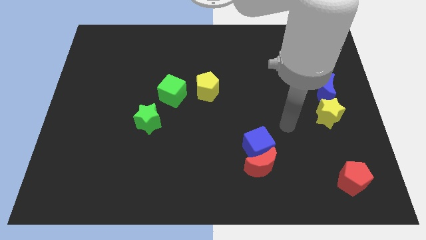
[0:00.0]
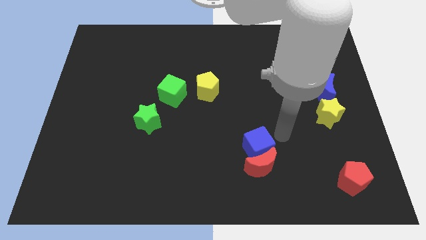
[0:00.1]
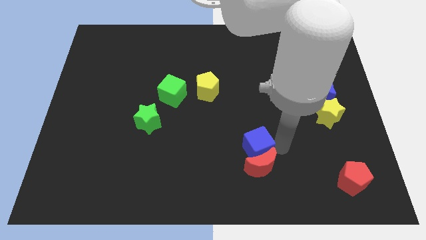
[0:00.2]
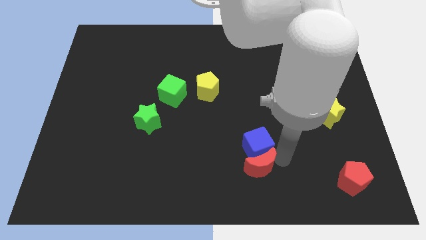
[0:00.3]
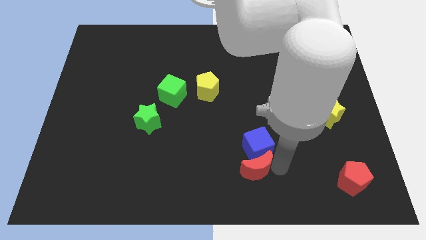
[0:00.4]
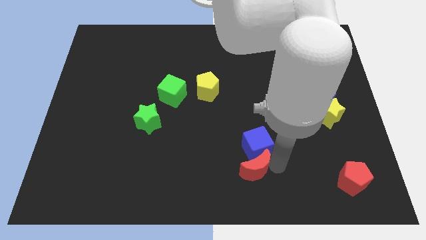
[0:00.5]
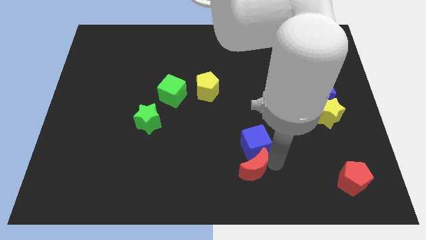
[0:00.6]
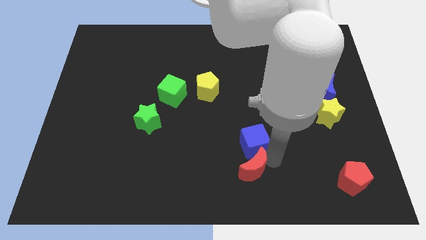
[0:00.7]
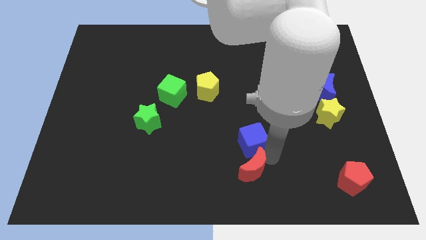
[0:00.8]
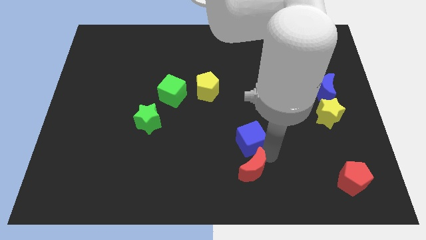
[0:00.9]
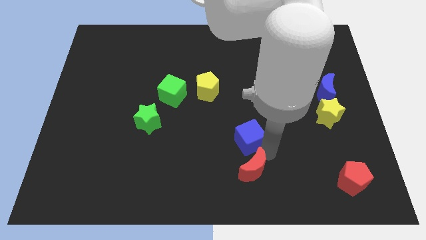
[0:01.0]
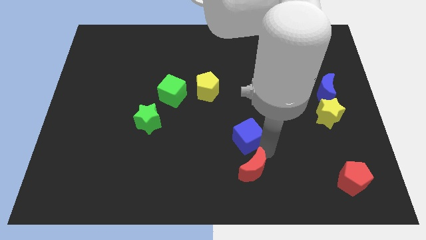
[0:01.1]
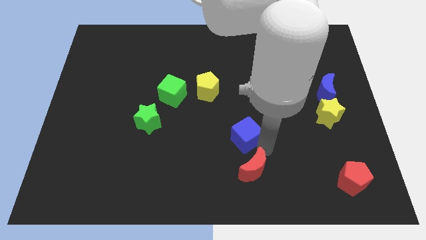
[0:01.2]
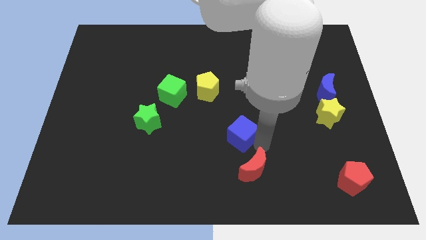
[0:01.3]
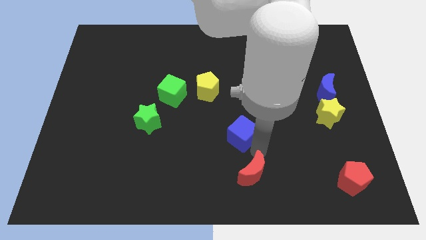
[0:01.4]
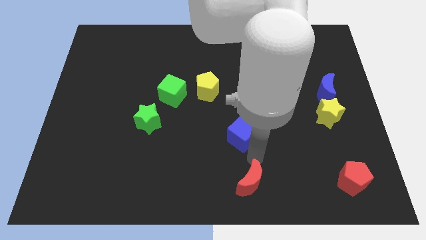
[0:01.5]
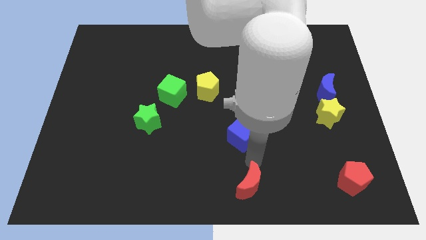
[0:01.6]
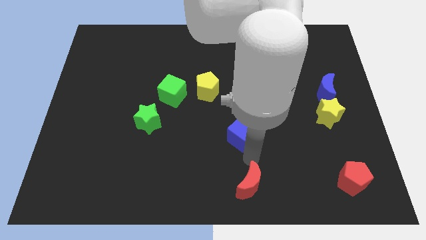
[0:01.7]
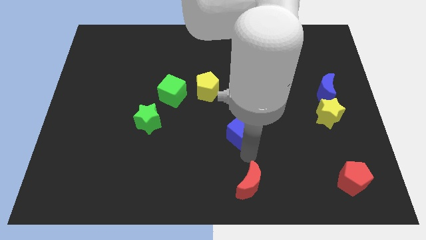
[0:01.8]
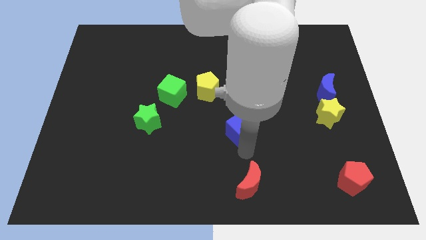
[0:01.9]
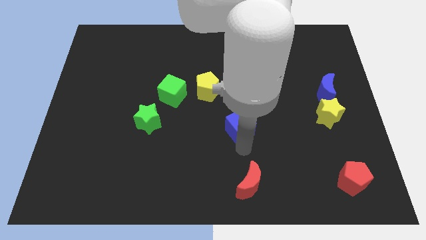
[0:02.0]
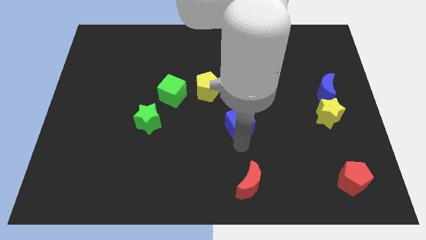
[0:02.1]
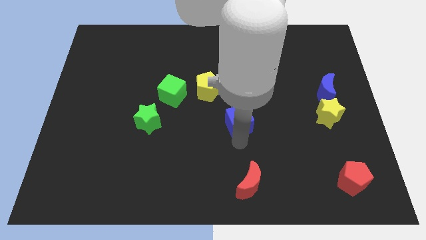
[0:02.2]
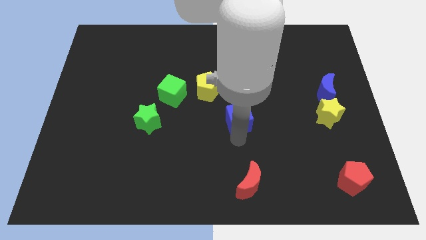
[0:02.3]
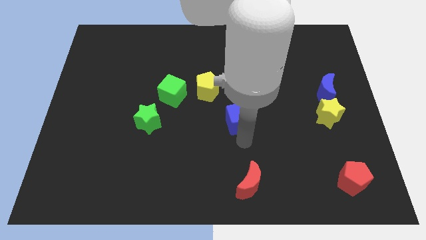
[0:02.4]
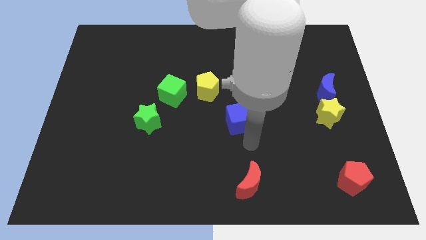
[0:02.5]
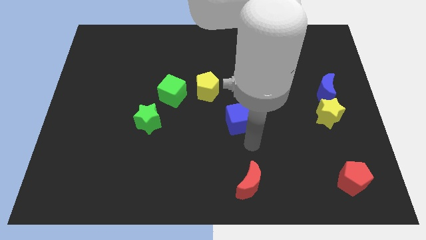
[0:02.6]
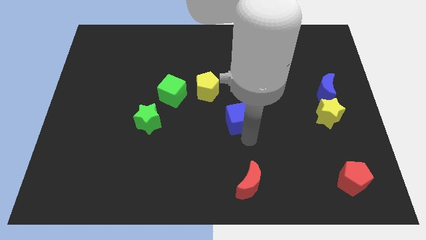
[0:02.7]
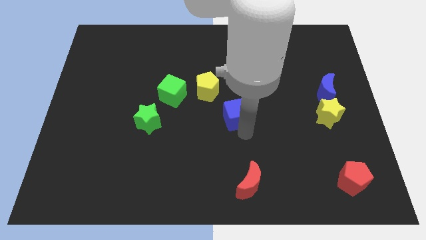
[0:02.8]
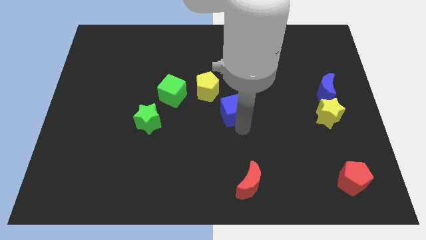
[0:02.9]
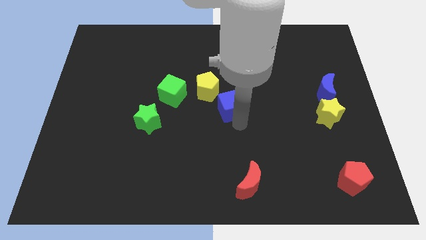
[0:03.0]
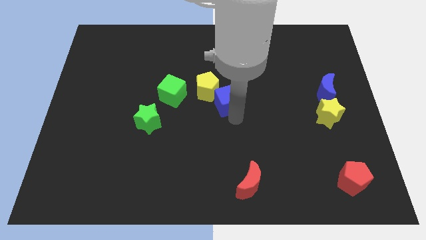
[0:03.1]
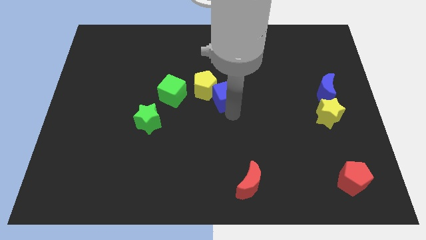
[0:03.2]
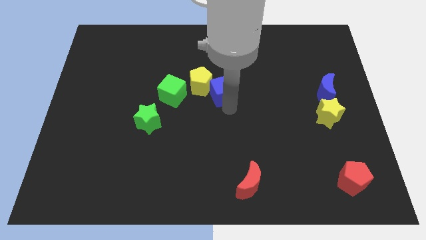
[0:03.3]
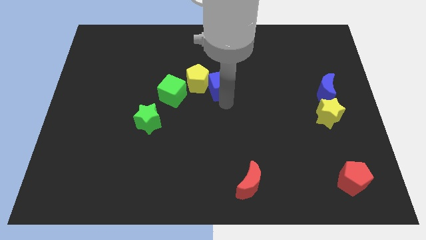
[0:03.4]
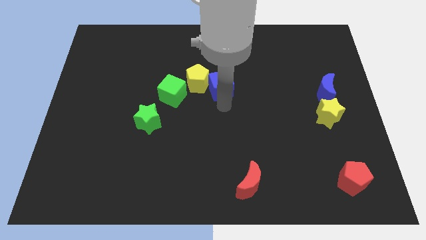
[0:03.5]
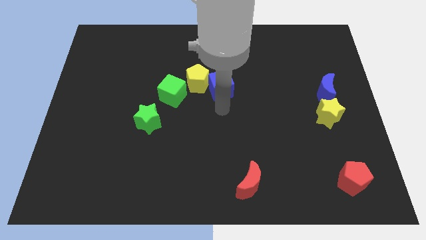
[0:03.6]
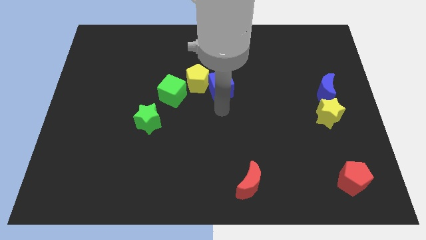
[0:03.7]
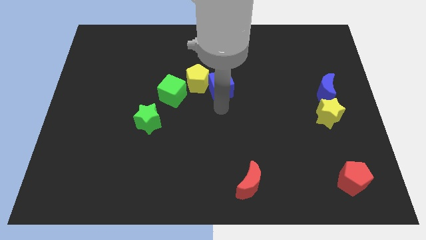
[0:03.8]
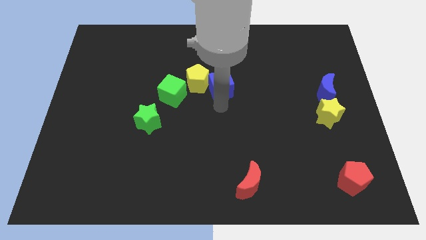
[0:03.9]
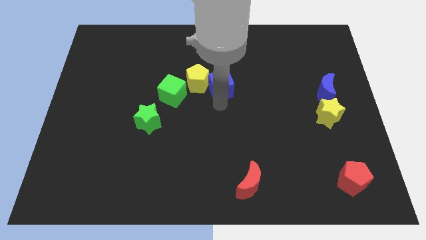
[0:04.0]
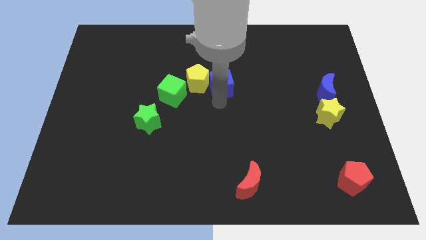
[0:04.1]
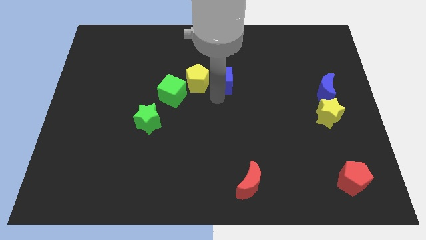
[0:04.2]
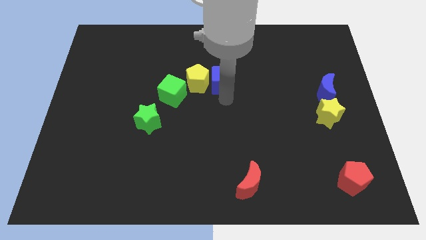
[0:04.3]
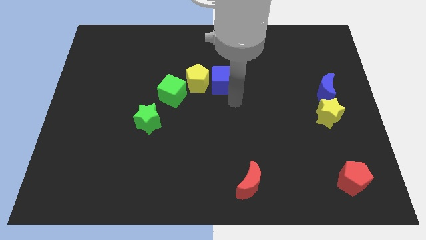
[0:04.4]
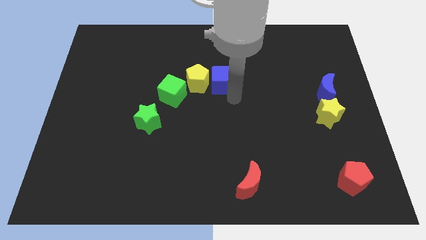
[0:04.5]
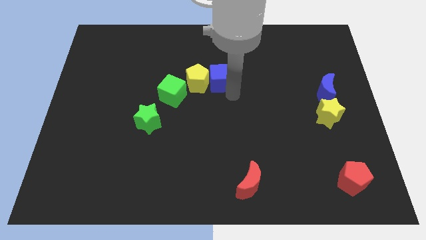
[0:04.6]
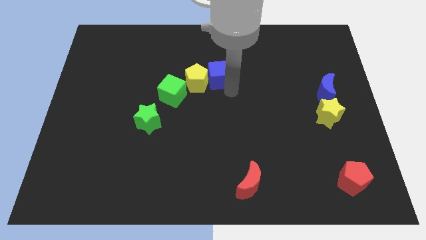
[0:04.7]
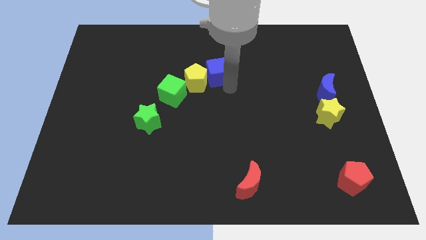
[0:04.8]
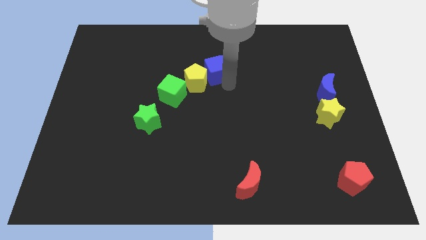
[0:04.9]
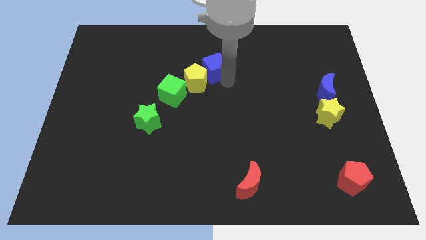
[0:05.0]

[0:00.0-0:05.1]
slide the blue cube to the top of the yellow pentagon

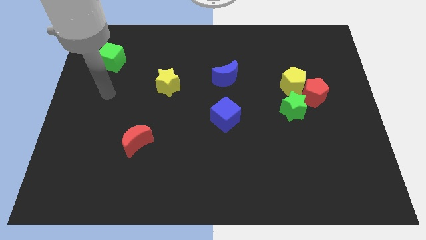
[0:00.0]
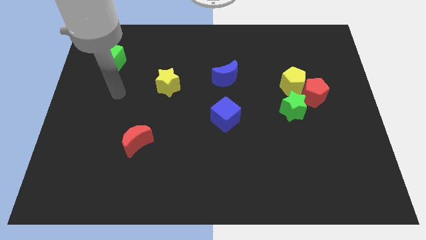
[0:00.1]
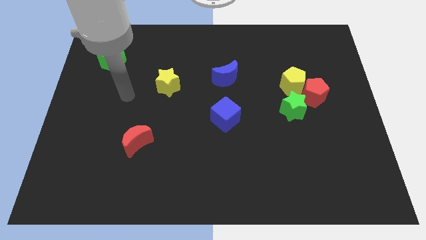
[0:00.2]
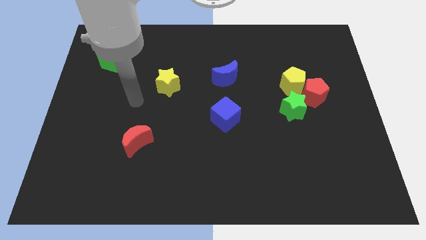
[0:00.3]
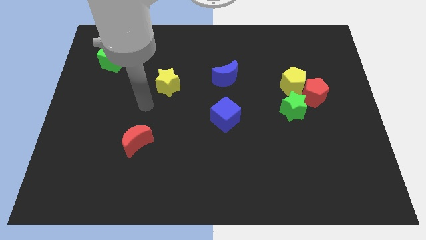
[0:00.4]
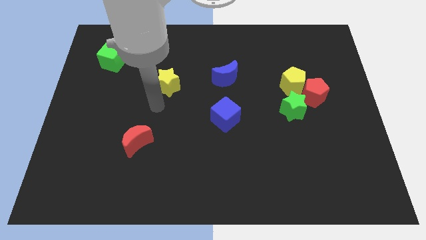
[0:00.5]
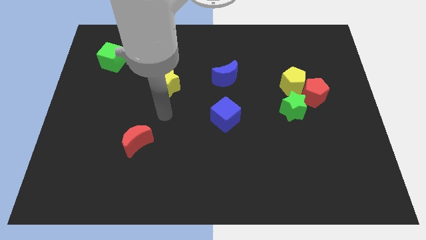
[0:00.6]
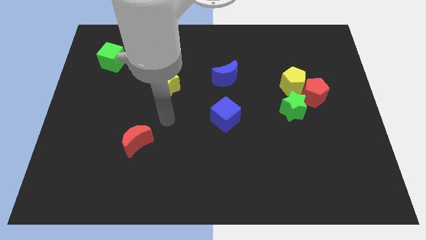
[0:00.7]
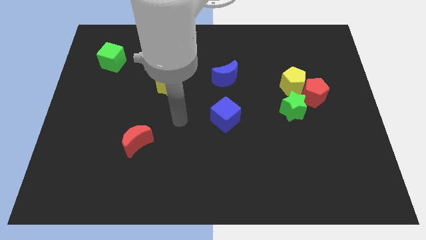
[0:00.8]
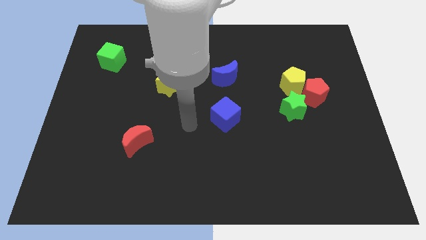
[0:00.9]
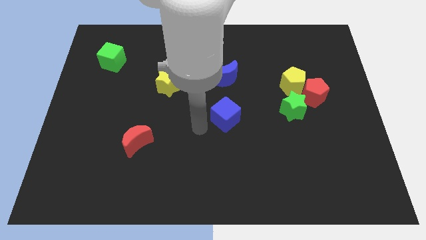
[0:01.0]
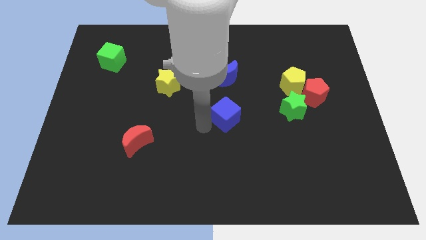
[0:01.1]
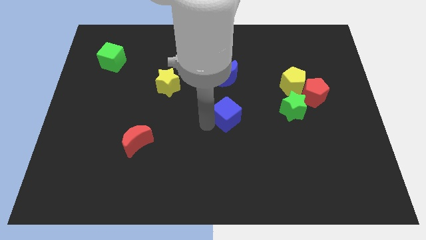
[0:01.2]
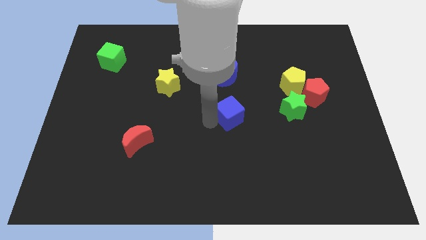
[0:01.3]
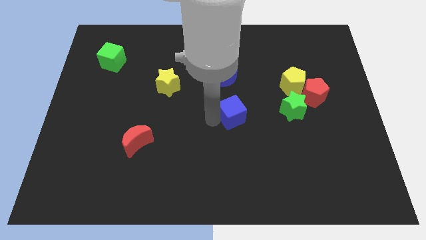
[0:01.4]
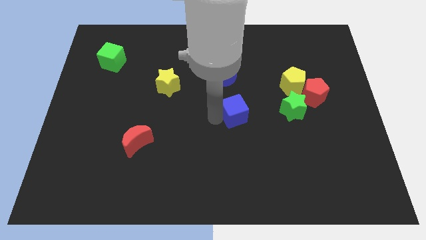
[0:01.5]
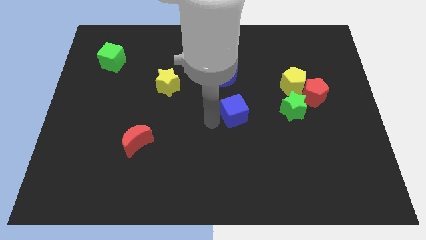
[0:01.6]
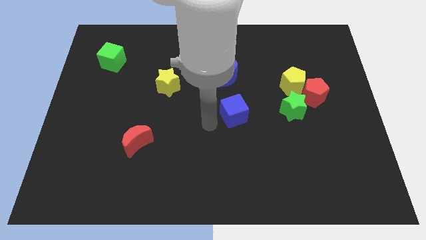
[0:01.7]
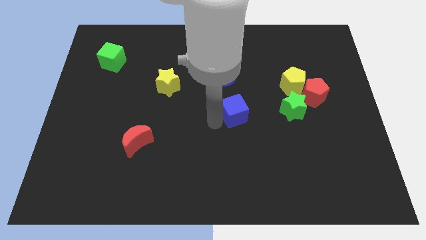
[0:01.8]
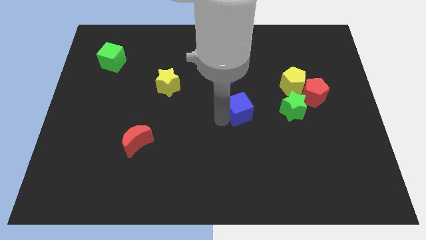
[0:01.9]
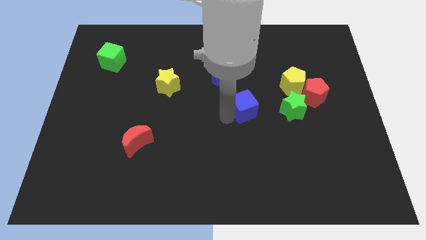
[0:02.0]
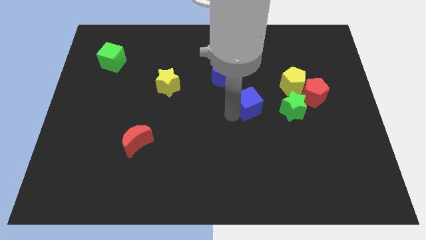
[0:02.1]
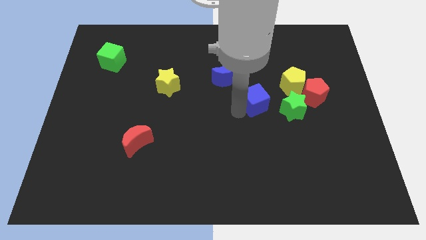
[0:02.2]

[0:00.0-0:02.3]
move the blue cube to the left side of the red pentagon

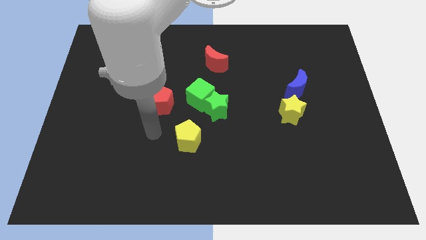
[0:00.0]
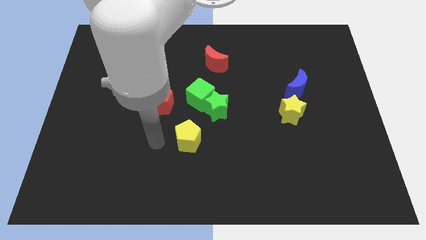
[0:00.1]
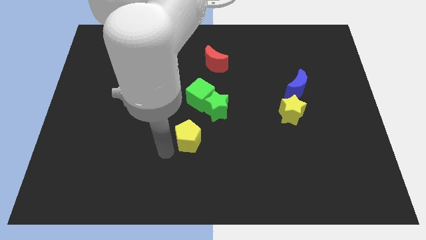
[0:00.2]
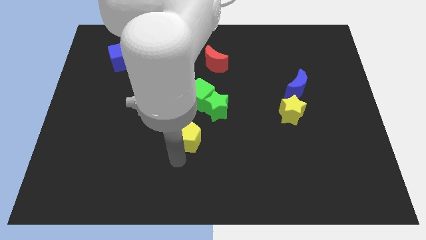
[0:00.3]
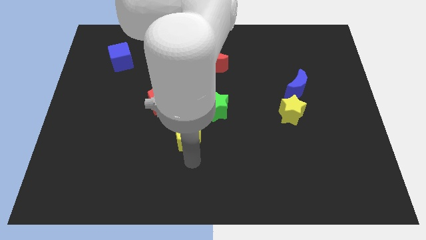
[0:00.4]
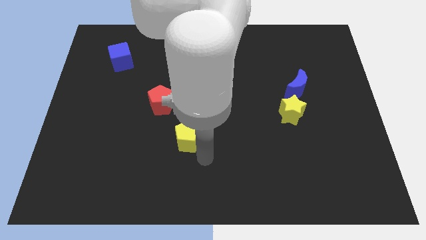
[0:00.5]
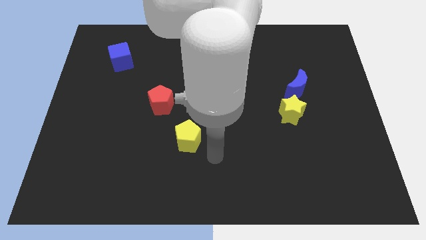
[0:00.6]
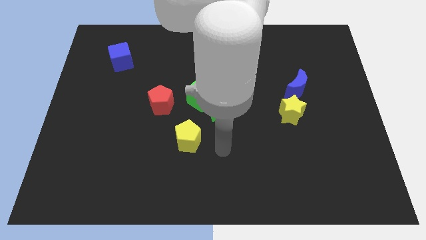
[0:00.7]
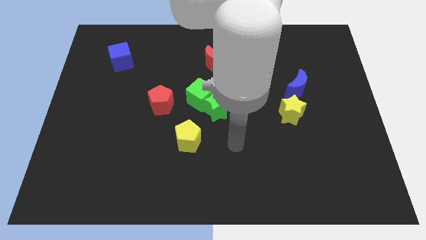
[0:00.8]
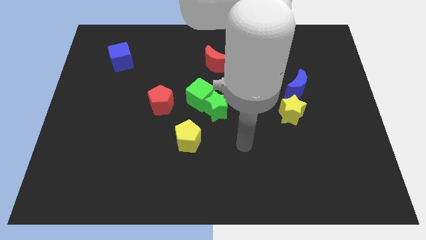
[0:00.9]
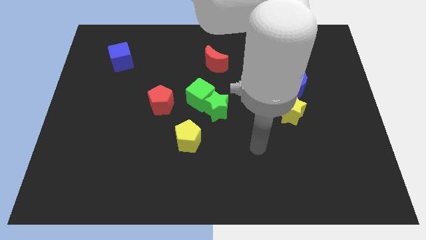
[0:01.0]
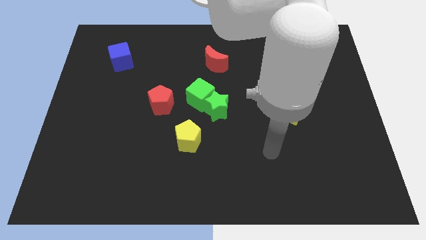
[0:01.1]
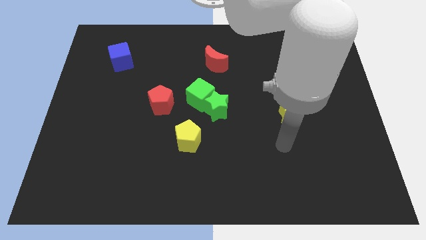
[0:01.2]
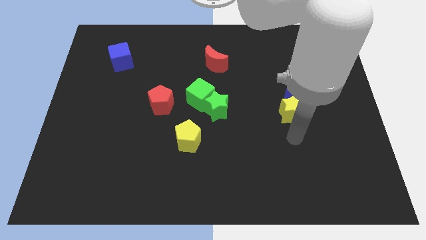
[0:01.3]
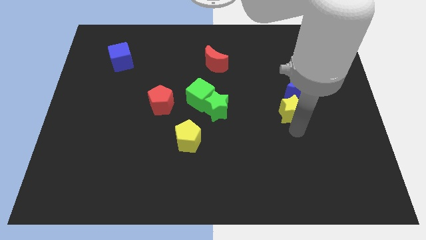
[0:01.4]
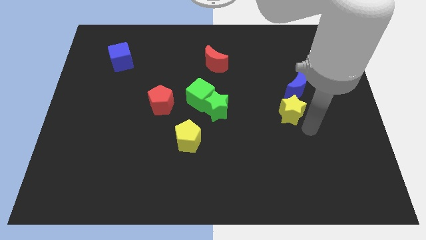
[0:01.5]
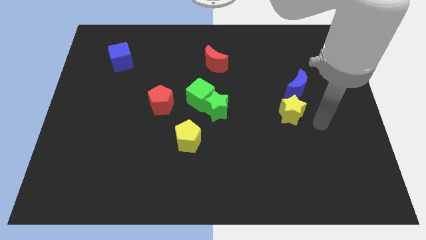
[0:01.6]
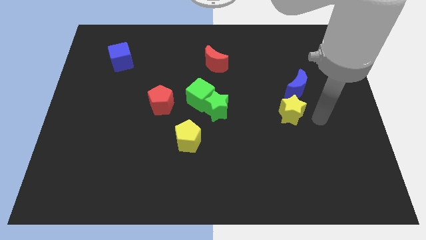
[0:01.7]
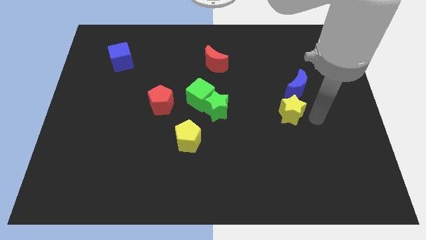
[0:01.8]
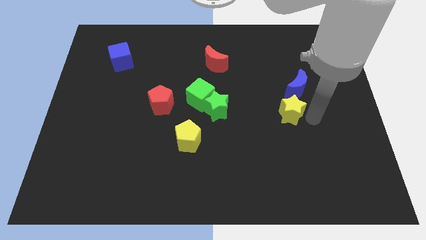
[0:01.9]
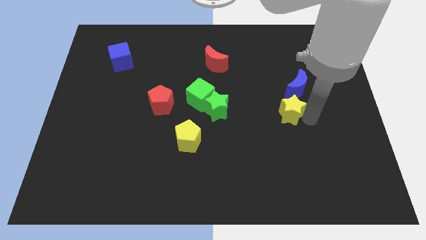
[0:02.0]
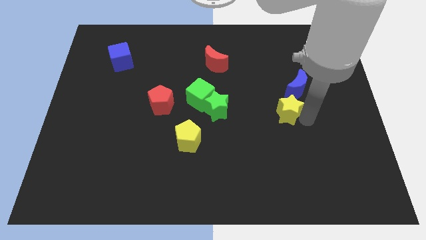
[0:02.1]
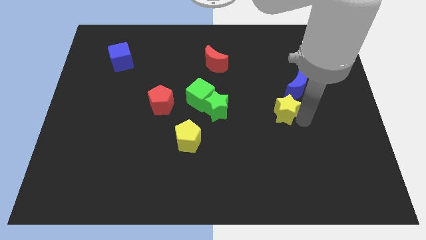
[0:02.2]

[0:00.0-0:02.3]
move the yellow star to the right side of the green star
